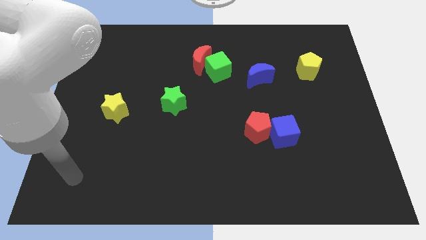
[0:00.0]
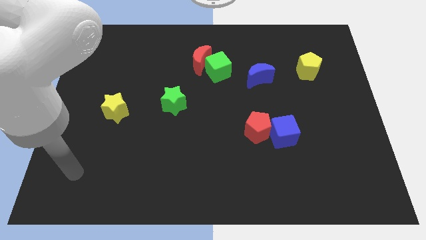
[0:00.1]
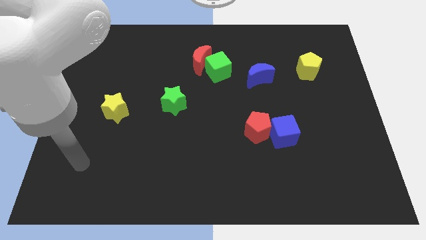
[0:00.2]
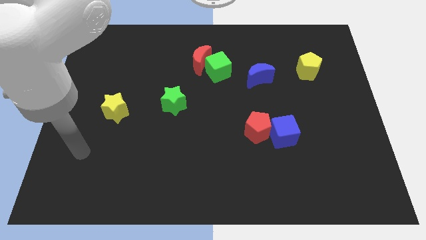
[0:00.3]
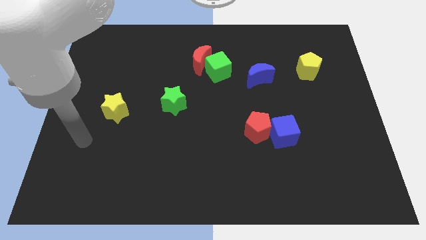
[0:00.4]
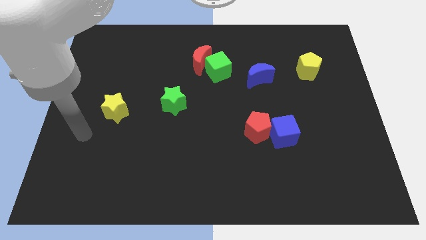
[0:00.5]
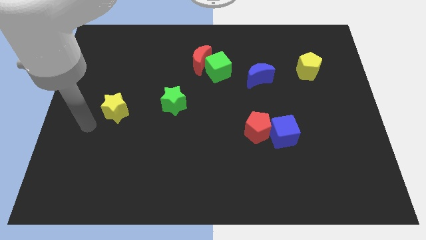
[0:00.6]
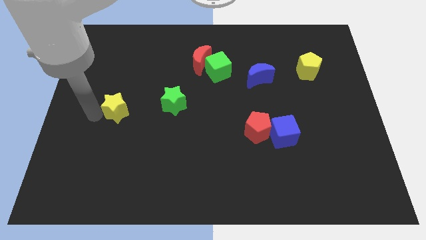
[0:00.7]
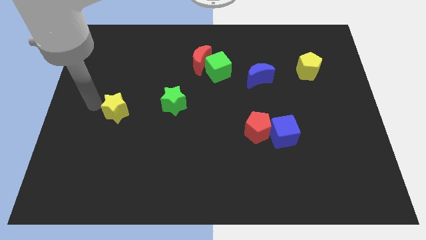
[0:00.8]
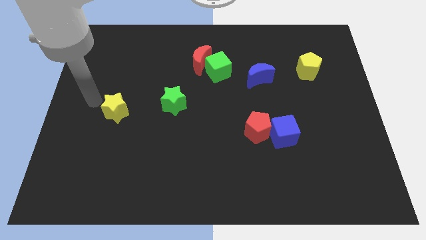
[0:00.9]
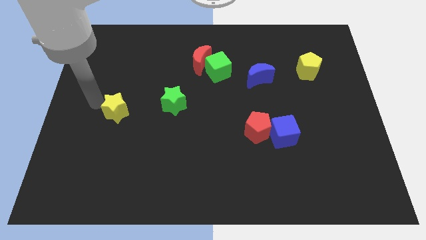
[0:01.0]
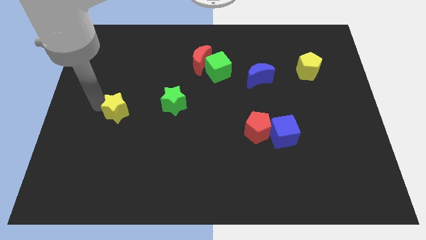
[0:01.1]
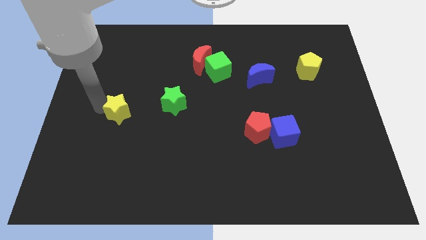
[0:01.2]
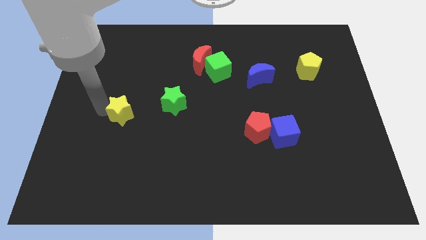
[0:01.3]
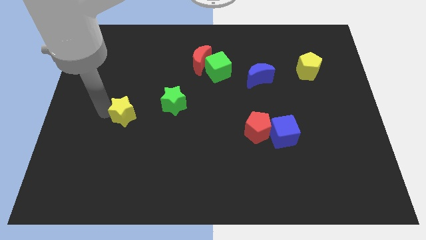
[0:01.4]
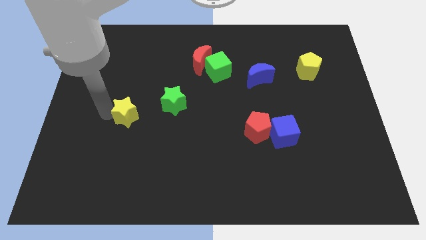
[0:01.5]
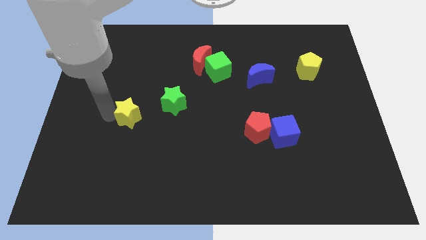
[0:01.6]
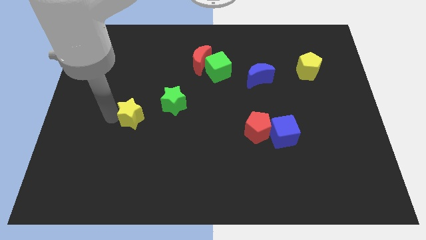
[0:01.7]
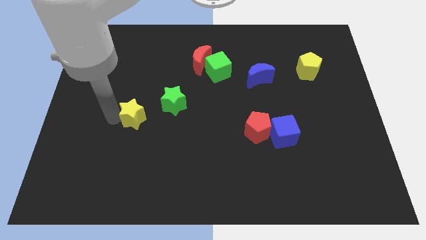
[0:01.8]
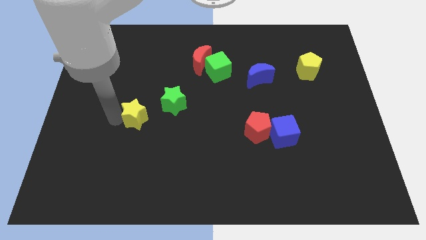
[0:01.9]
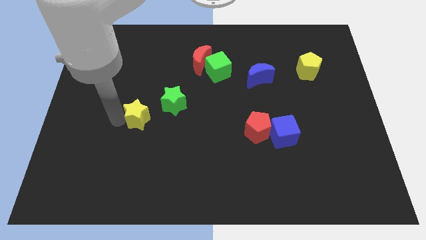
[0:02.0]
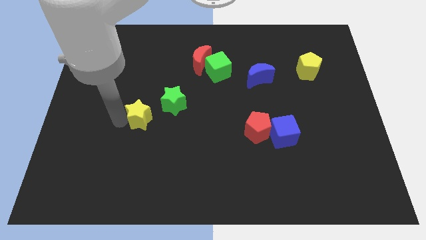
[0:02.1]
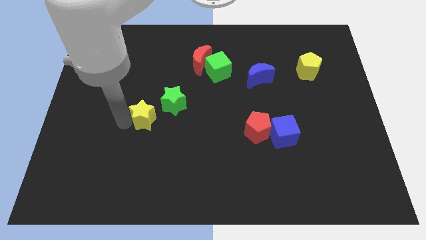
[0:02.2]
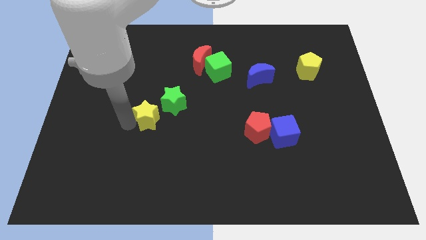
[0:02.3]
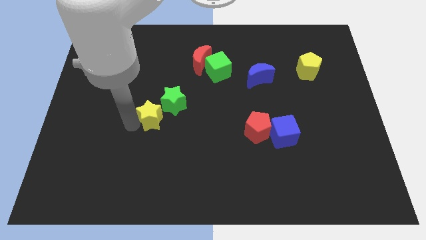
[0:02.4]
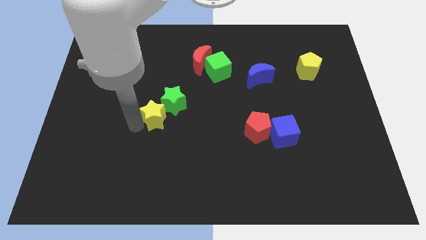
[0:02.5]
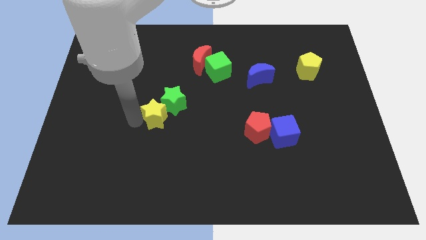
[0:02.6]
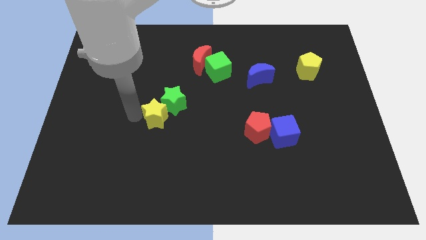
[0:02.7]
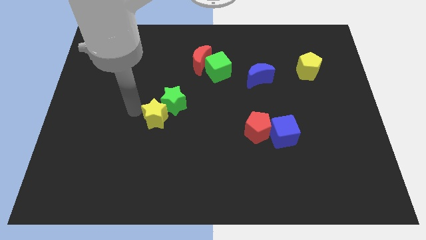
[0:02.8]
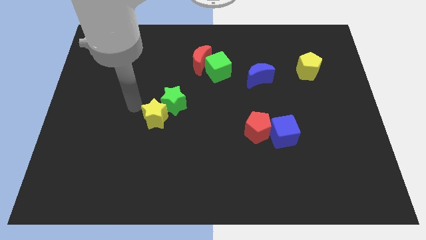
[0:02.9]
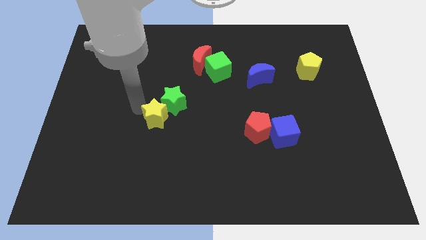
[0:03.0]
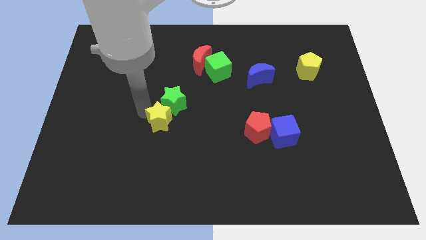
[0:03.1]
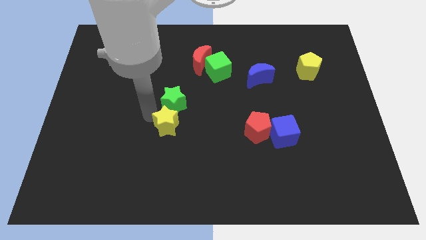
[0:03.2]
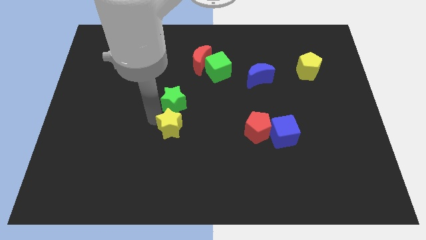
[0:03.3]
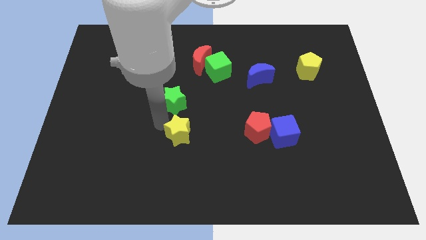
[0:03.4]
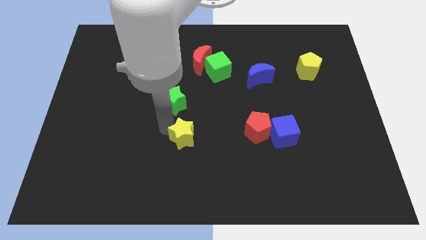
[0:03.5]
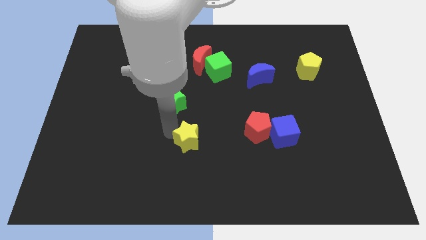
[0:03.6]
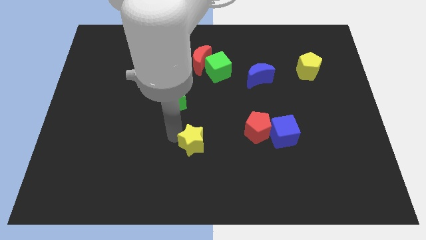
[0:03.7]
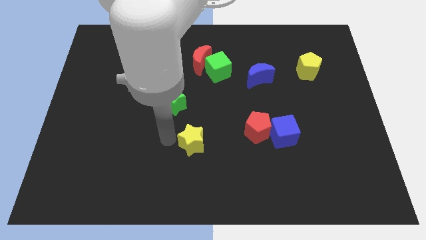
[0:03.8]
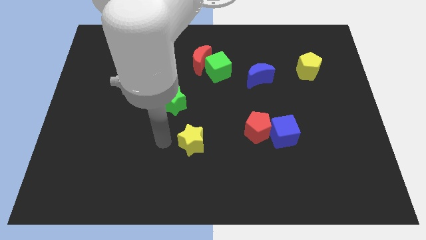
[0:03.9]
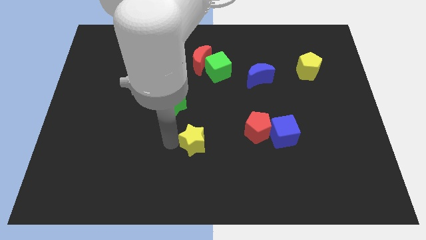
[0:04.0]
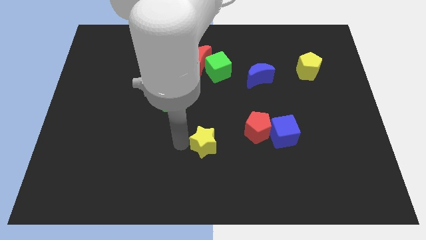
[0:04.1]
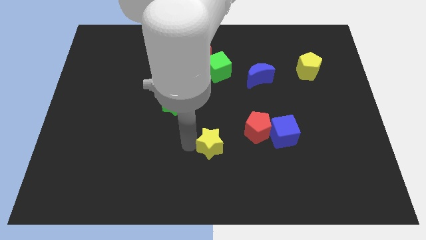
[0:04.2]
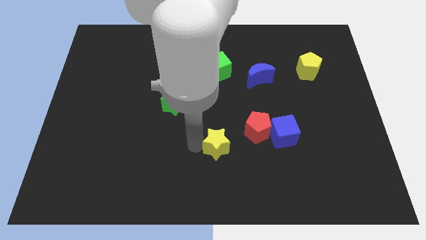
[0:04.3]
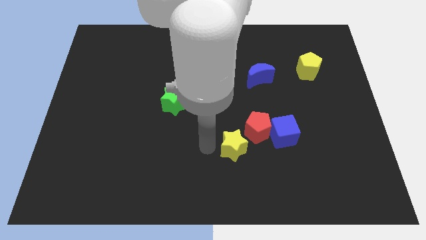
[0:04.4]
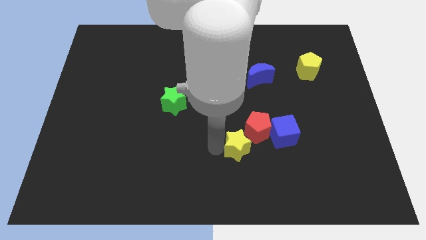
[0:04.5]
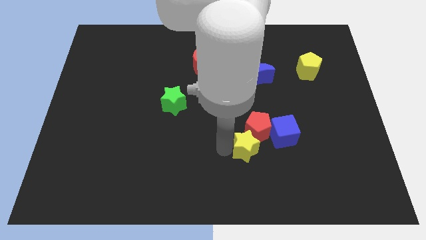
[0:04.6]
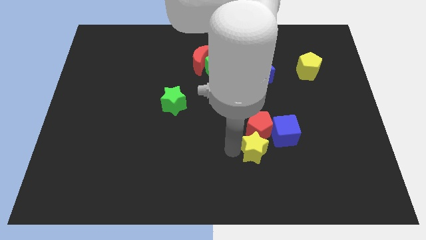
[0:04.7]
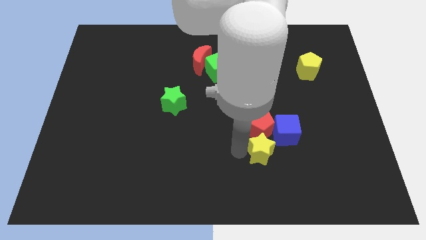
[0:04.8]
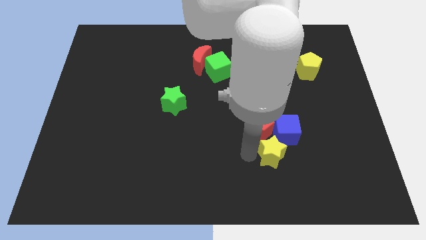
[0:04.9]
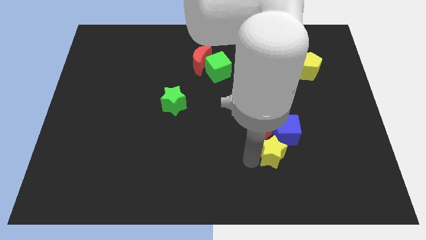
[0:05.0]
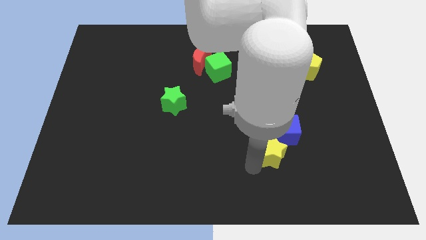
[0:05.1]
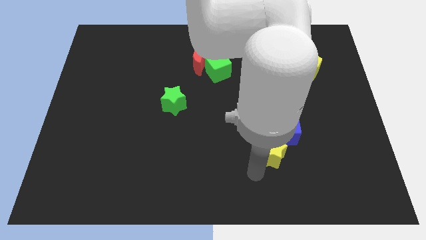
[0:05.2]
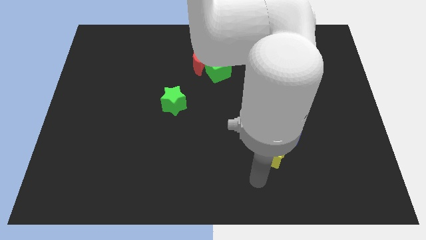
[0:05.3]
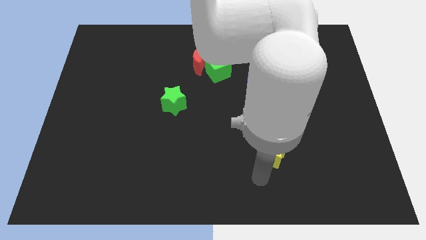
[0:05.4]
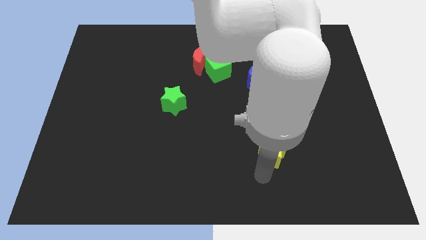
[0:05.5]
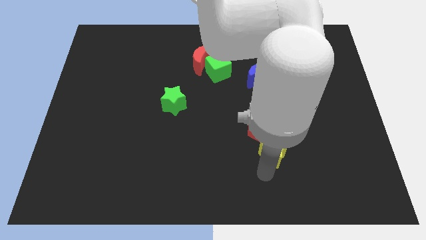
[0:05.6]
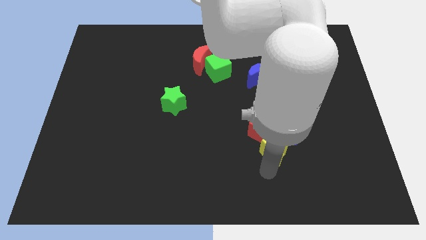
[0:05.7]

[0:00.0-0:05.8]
put the yellow star close to the blue cube

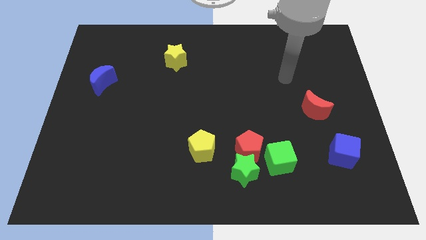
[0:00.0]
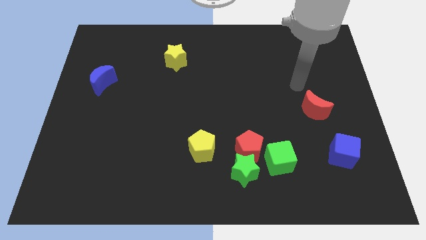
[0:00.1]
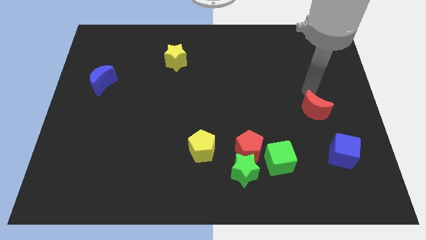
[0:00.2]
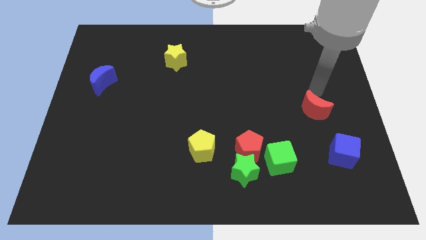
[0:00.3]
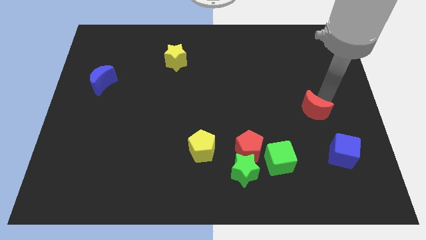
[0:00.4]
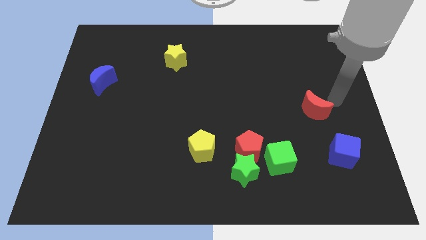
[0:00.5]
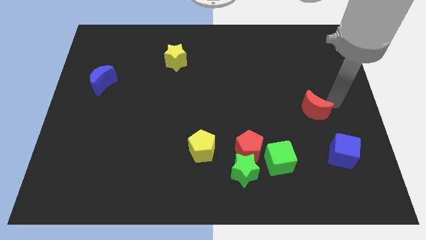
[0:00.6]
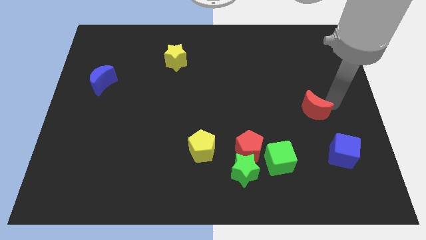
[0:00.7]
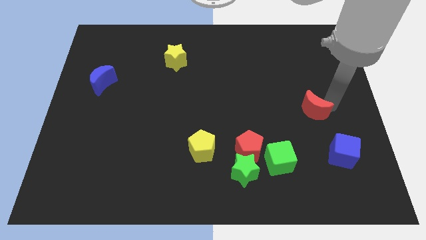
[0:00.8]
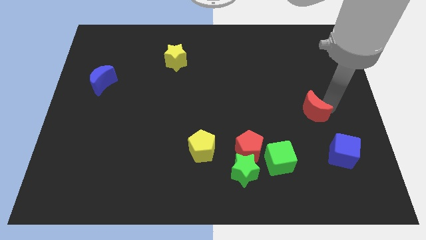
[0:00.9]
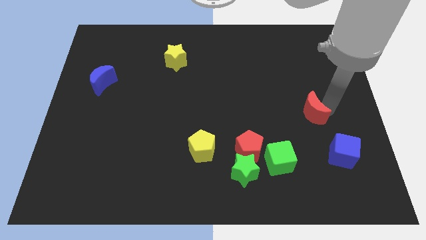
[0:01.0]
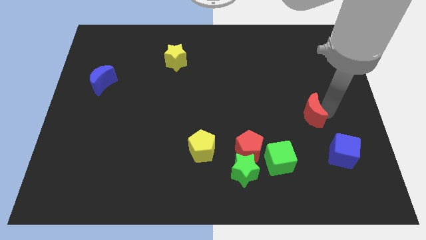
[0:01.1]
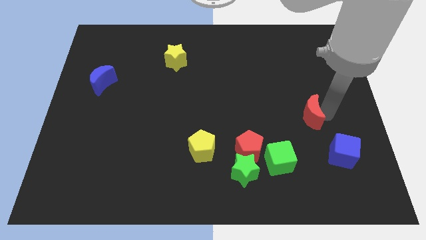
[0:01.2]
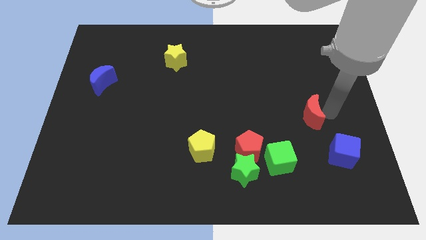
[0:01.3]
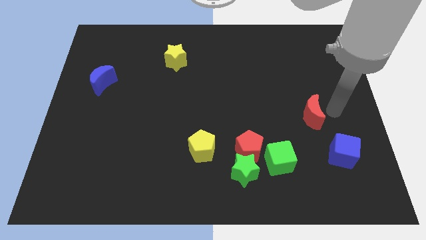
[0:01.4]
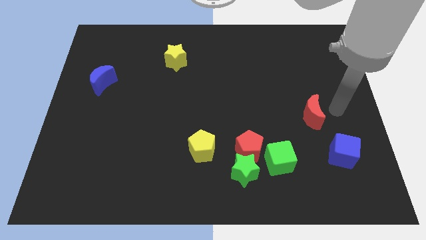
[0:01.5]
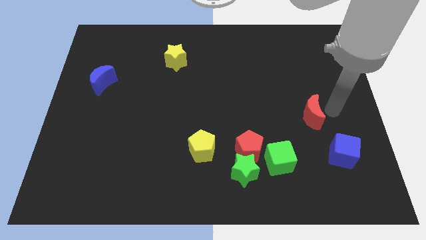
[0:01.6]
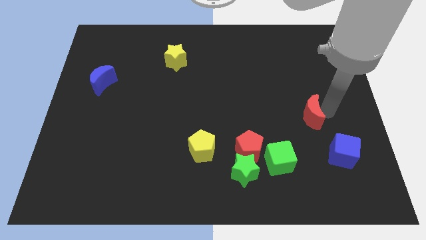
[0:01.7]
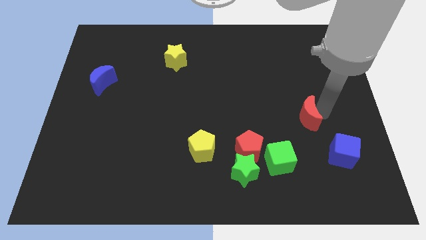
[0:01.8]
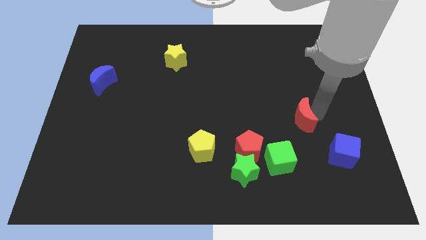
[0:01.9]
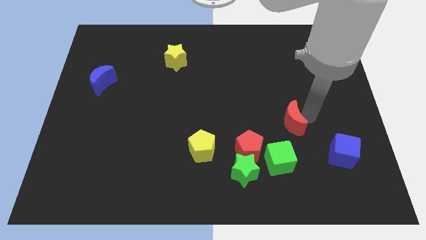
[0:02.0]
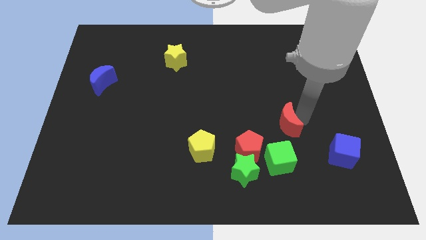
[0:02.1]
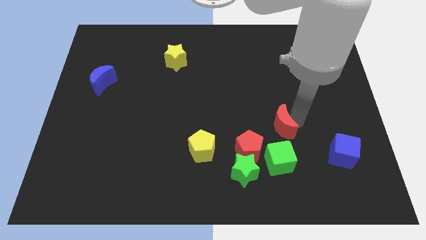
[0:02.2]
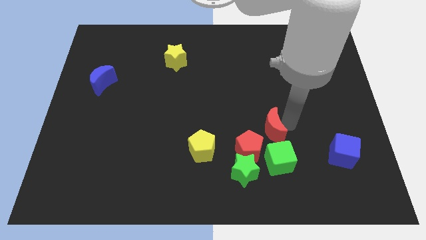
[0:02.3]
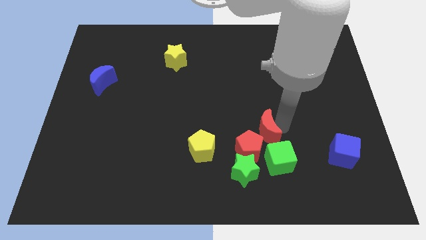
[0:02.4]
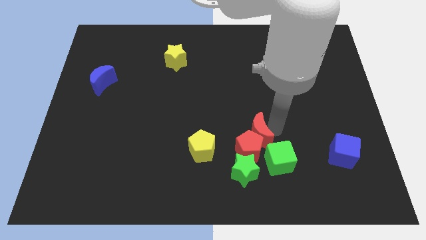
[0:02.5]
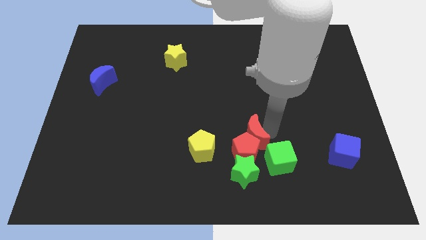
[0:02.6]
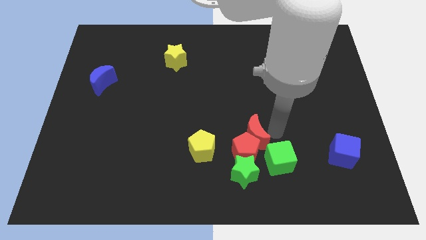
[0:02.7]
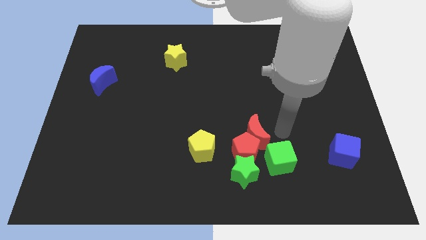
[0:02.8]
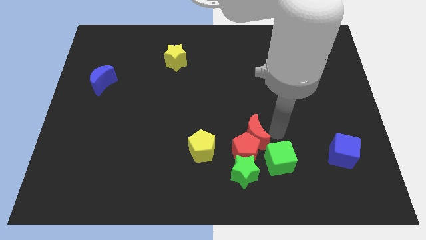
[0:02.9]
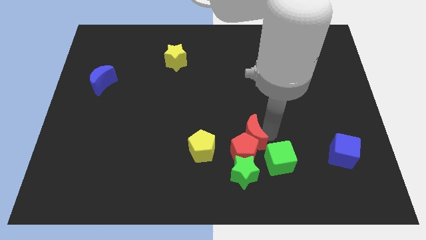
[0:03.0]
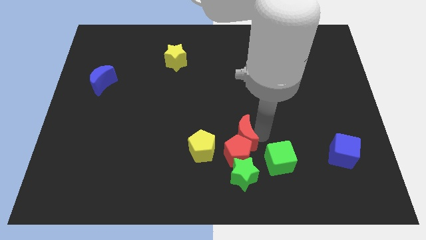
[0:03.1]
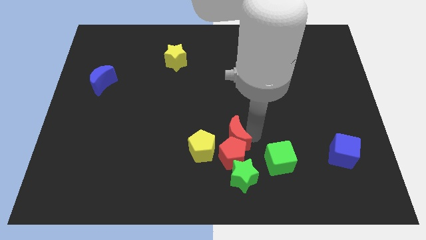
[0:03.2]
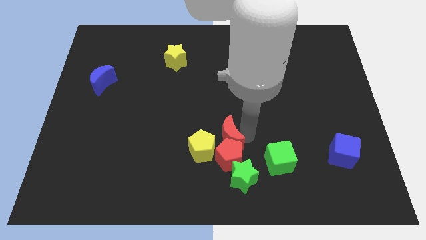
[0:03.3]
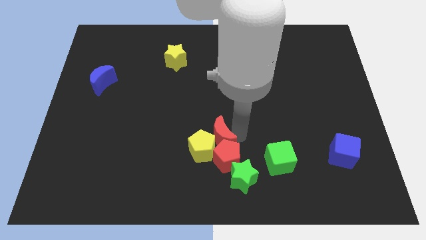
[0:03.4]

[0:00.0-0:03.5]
push the red moon close to the yellow pentagon
